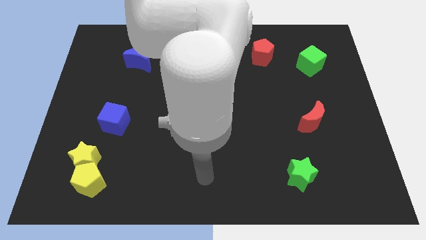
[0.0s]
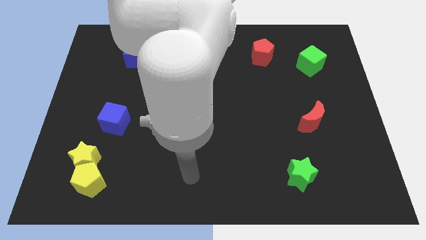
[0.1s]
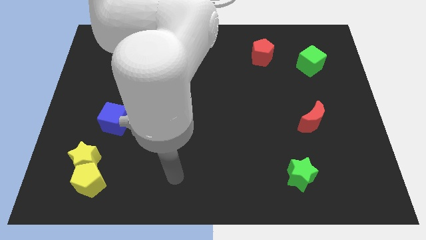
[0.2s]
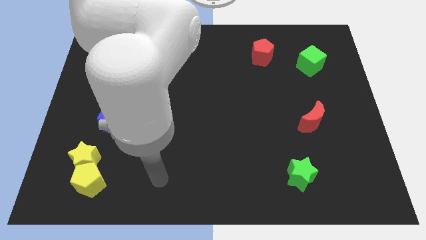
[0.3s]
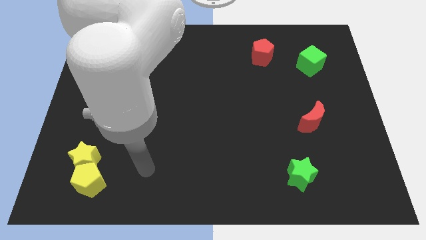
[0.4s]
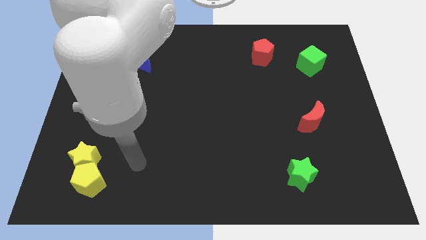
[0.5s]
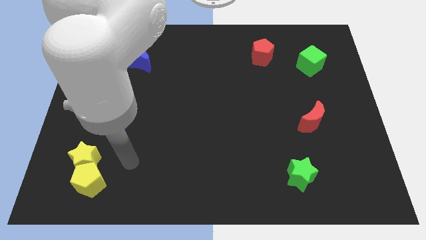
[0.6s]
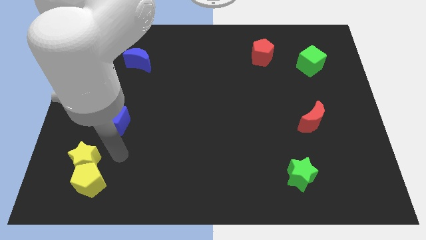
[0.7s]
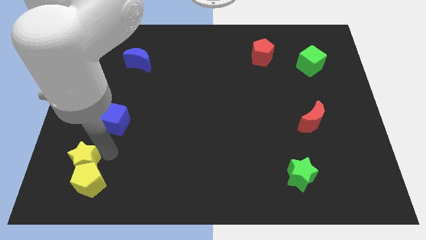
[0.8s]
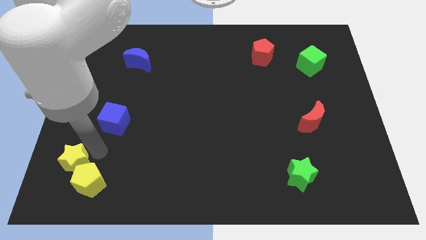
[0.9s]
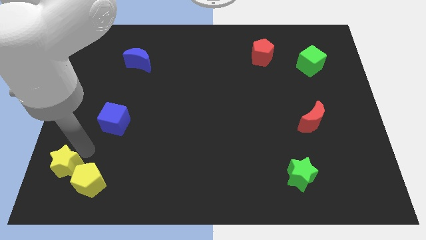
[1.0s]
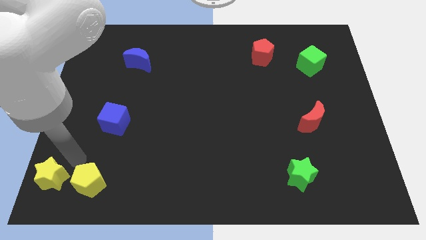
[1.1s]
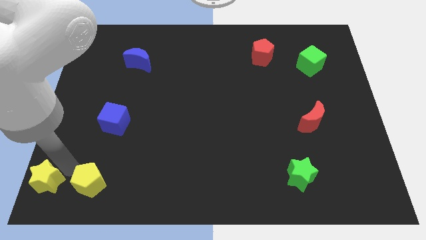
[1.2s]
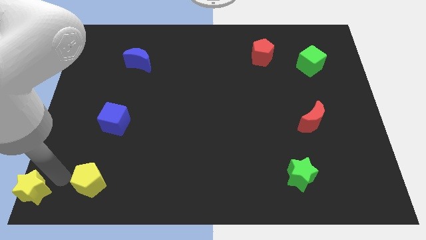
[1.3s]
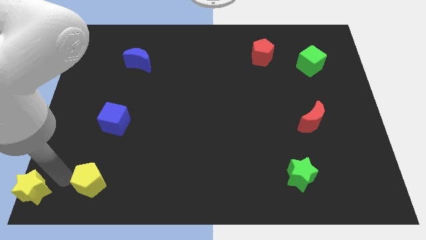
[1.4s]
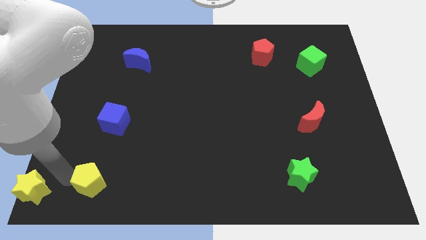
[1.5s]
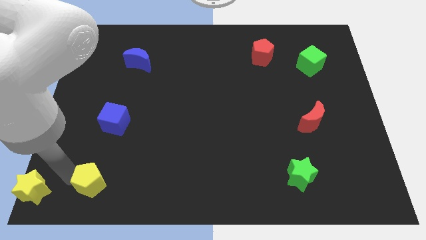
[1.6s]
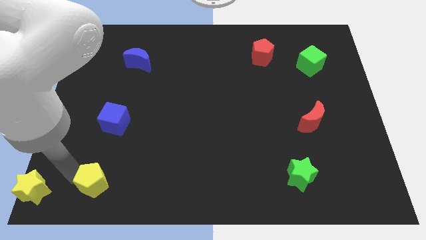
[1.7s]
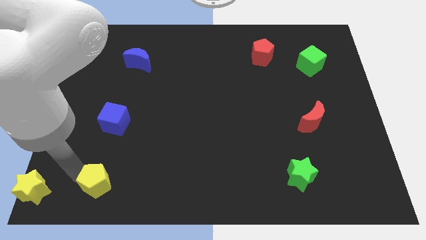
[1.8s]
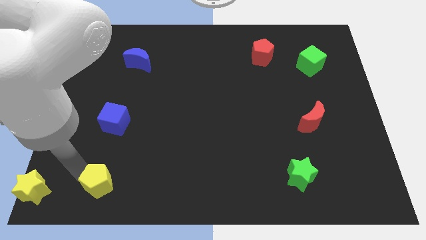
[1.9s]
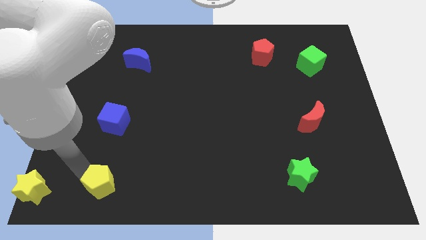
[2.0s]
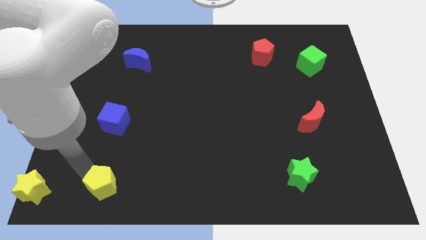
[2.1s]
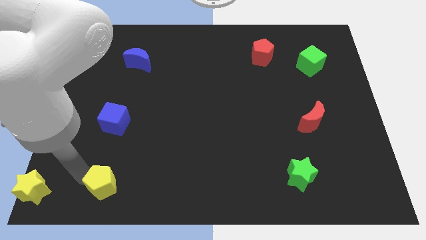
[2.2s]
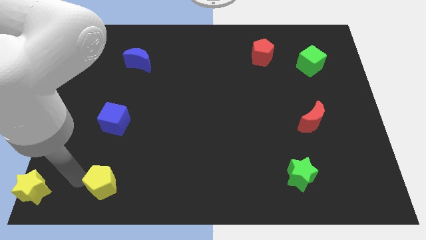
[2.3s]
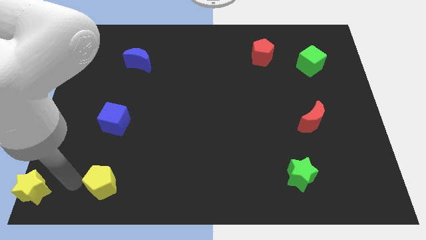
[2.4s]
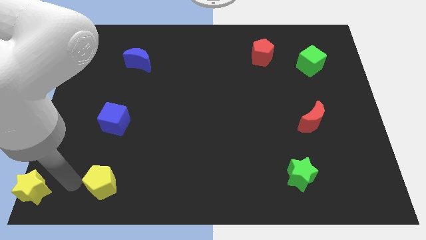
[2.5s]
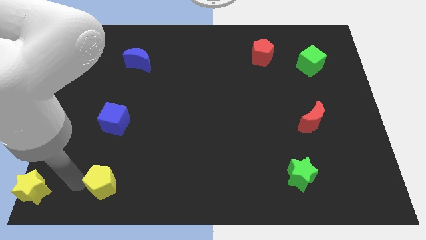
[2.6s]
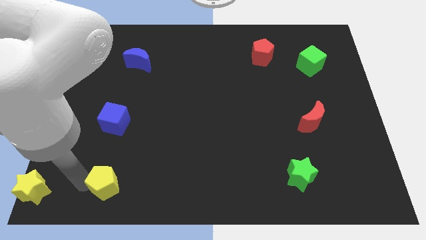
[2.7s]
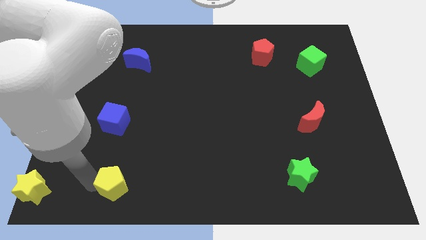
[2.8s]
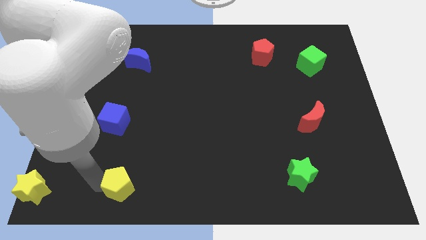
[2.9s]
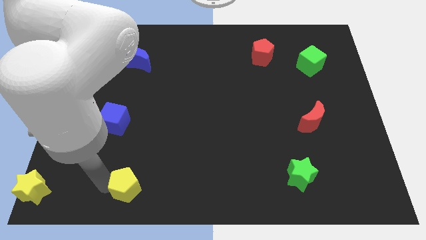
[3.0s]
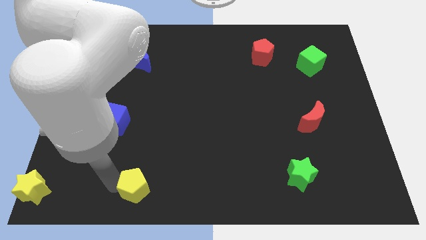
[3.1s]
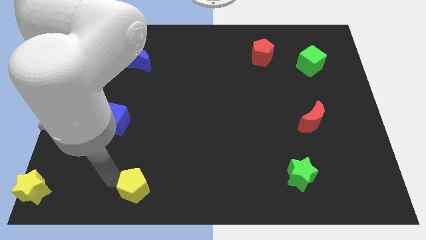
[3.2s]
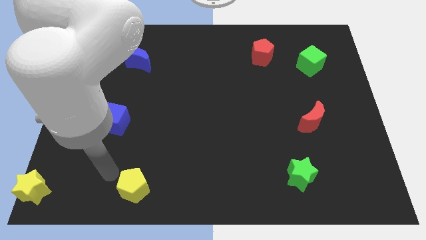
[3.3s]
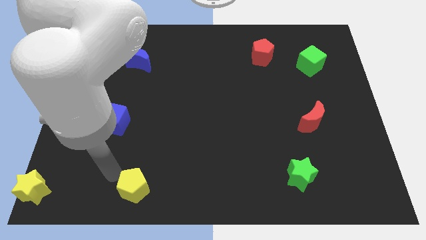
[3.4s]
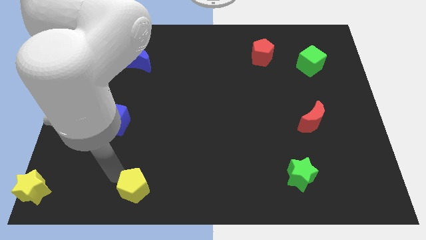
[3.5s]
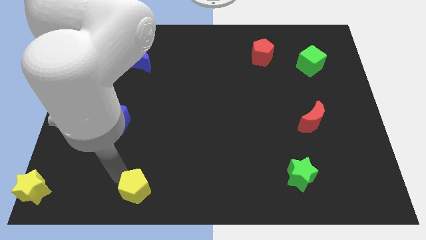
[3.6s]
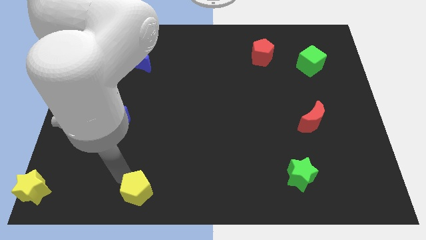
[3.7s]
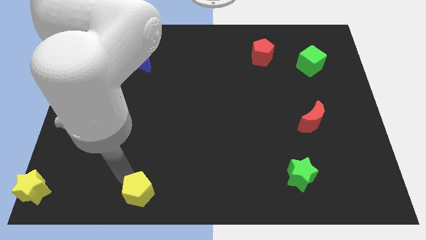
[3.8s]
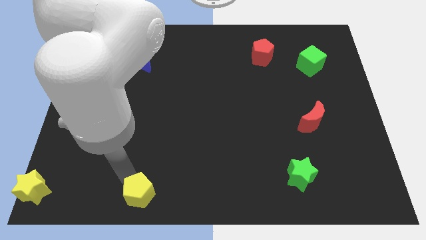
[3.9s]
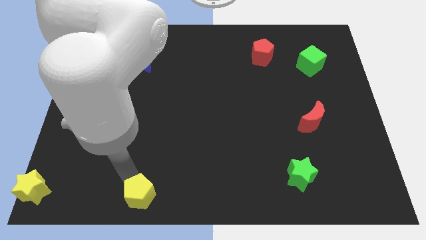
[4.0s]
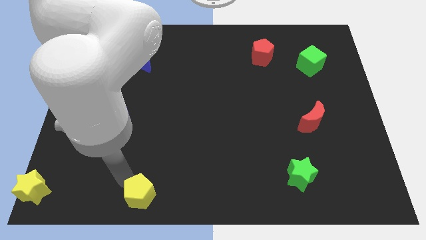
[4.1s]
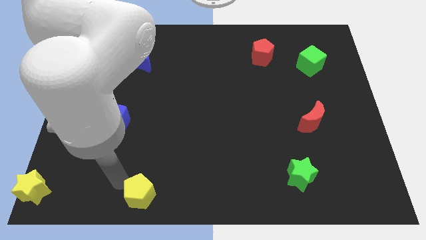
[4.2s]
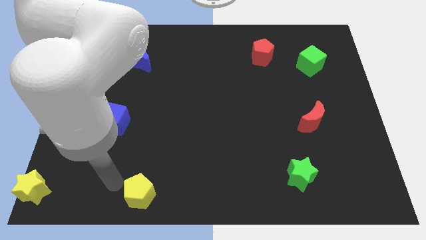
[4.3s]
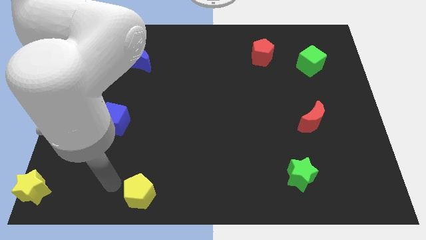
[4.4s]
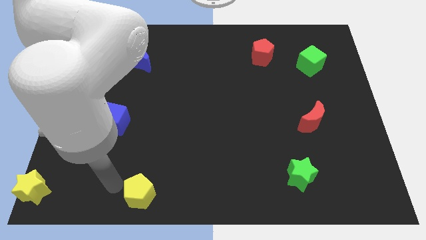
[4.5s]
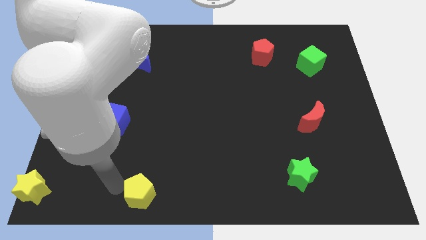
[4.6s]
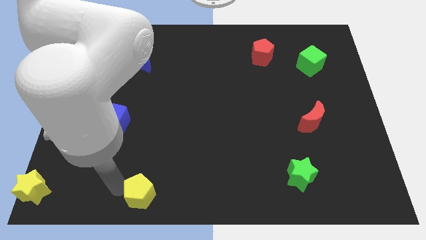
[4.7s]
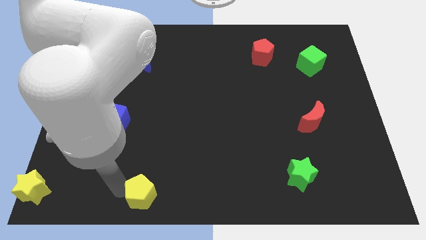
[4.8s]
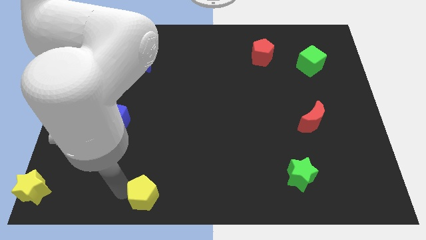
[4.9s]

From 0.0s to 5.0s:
slide the yellow pentagon to the bottom
